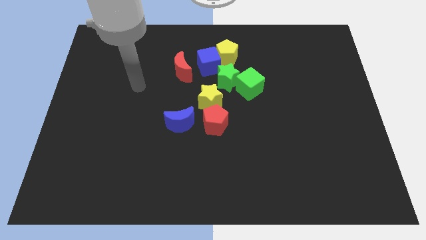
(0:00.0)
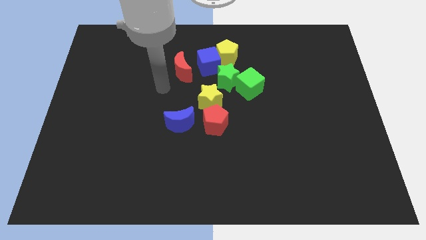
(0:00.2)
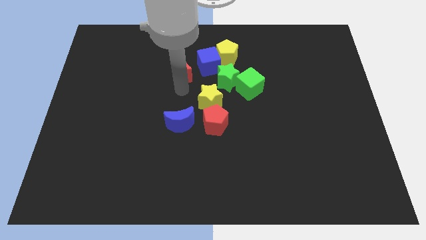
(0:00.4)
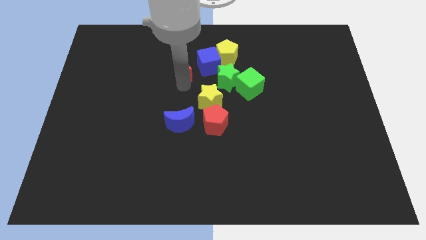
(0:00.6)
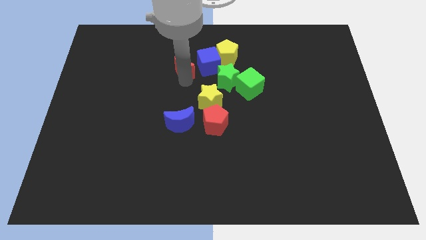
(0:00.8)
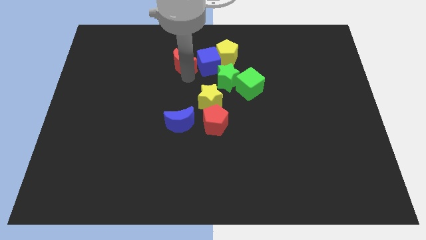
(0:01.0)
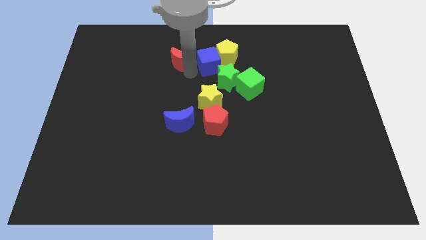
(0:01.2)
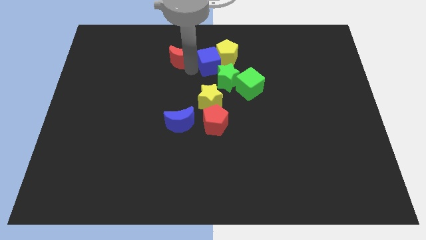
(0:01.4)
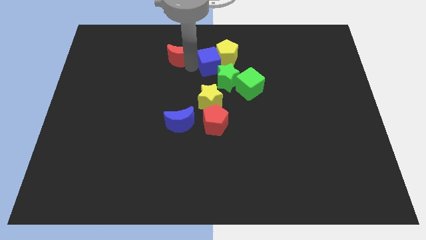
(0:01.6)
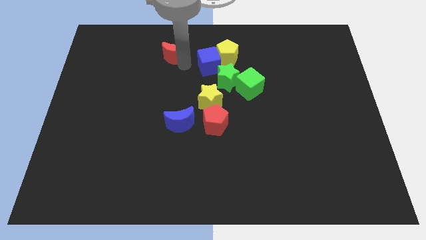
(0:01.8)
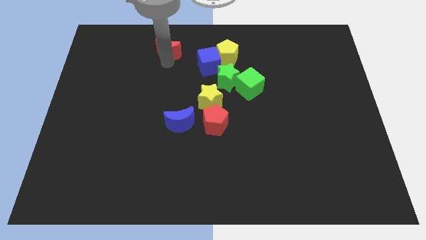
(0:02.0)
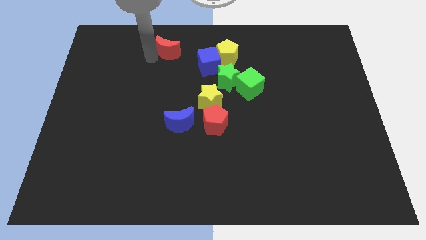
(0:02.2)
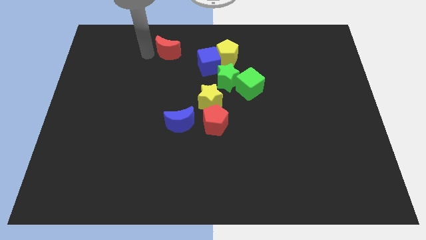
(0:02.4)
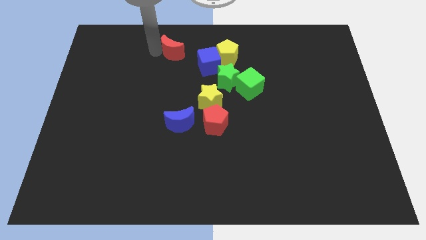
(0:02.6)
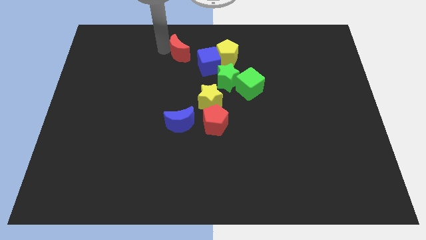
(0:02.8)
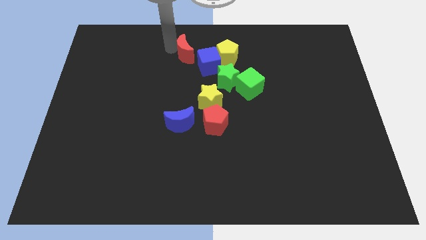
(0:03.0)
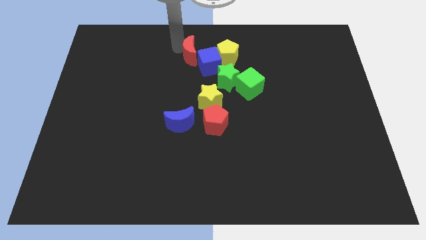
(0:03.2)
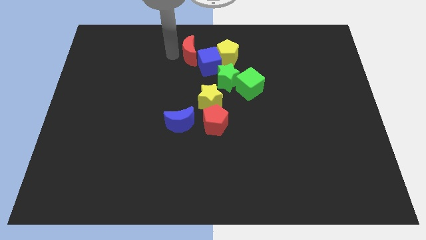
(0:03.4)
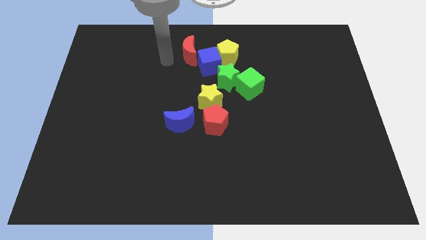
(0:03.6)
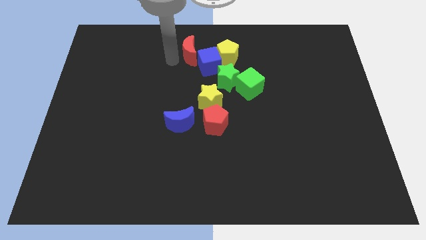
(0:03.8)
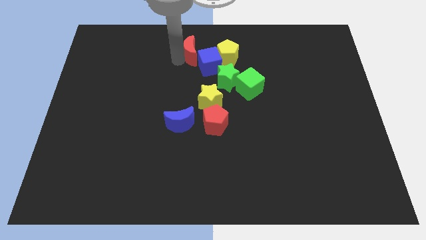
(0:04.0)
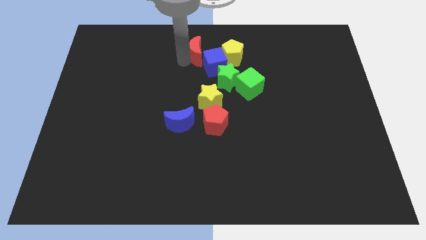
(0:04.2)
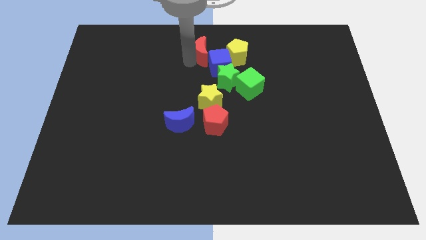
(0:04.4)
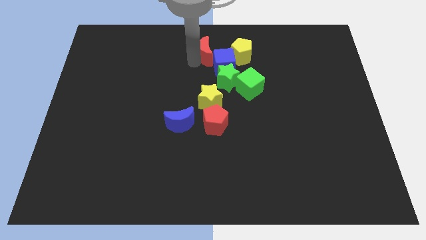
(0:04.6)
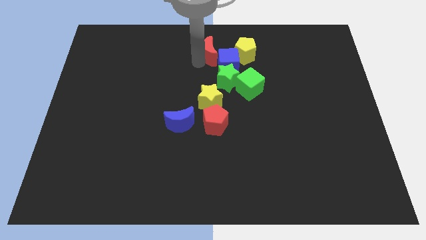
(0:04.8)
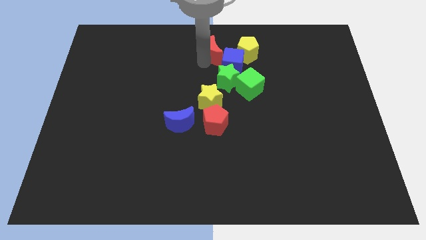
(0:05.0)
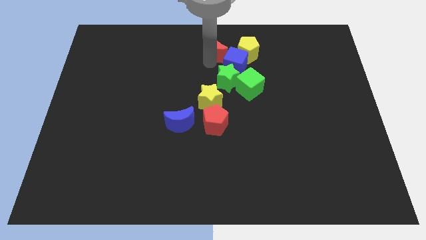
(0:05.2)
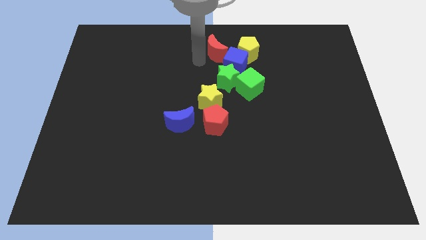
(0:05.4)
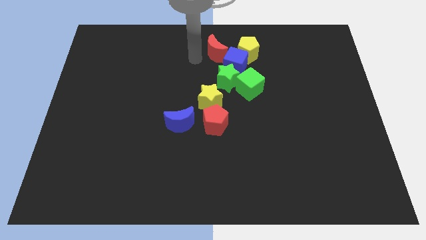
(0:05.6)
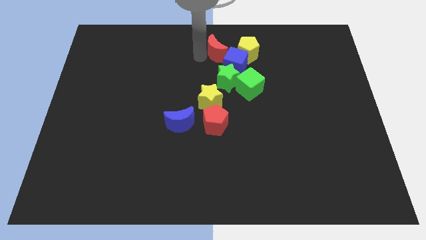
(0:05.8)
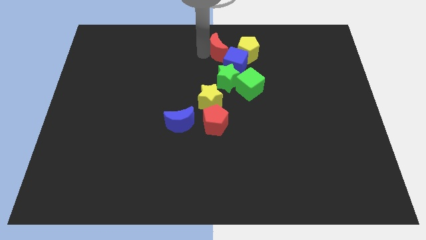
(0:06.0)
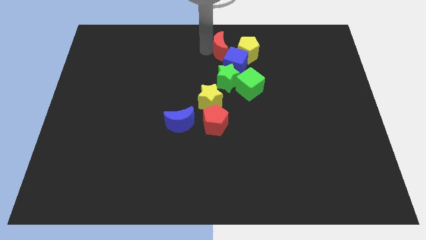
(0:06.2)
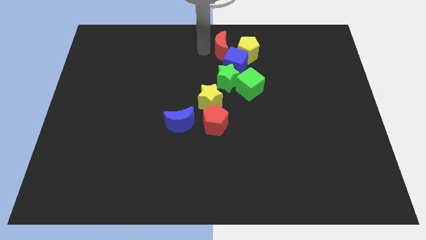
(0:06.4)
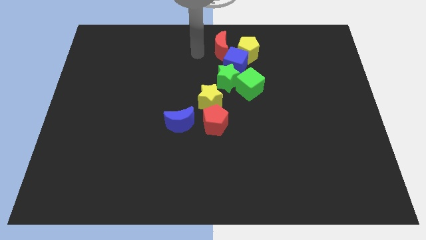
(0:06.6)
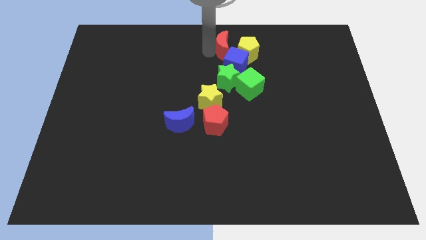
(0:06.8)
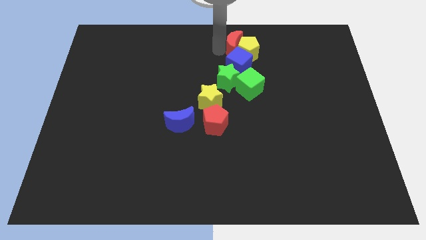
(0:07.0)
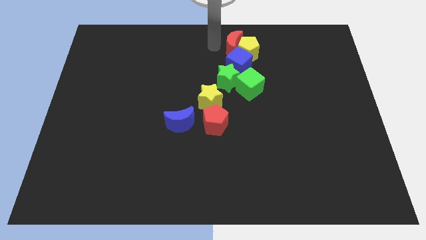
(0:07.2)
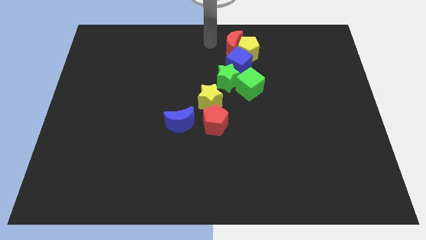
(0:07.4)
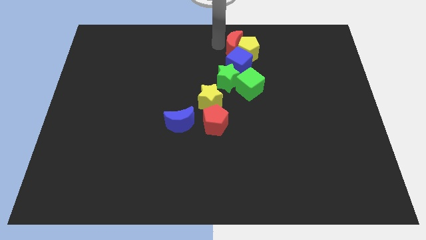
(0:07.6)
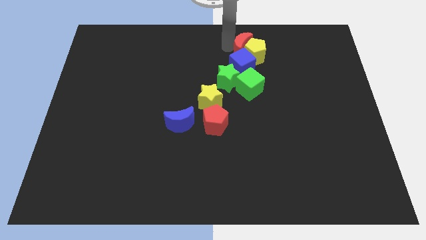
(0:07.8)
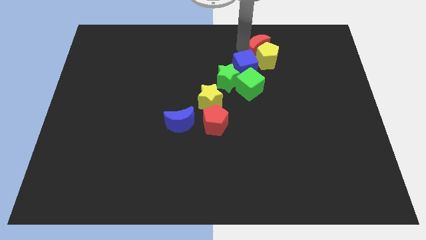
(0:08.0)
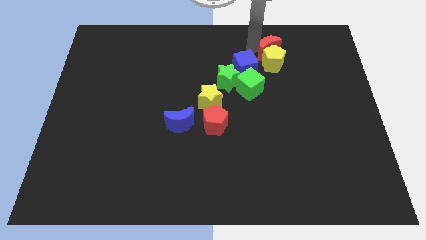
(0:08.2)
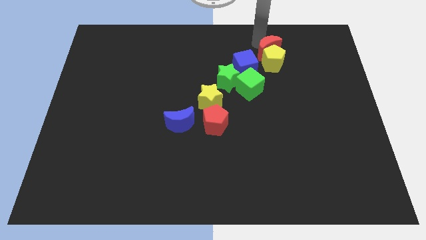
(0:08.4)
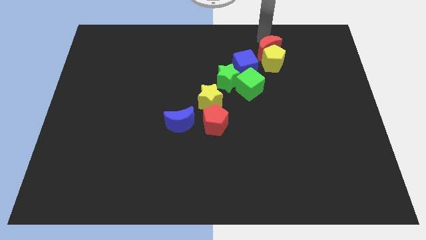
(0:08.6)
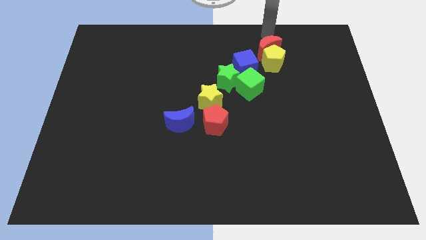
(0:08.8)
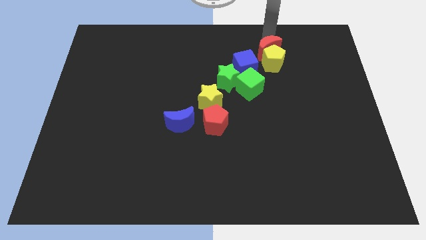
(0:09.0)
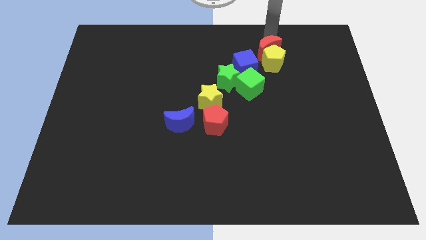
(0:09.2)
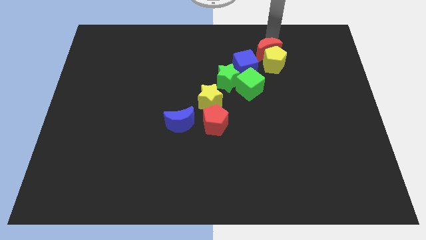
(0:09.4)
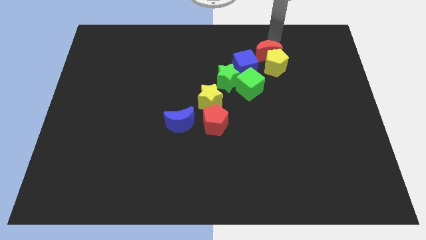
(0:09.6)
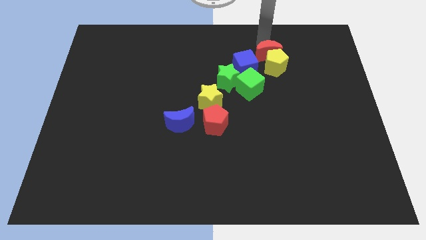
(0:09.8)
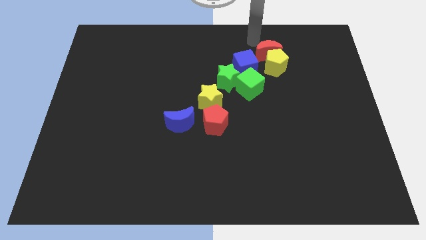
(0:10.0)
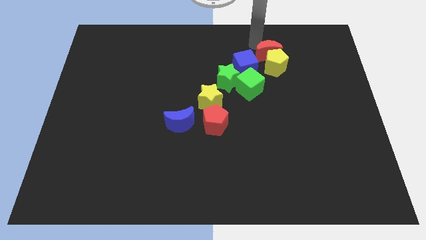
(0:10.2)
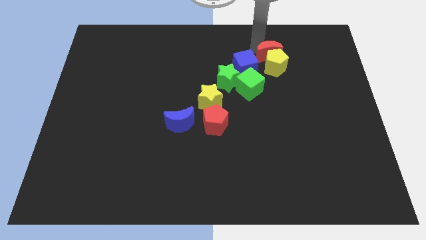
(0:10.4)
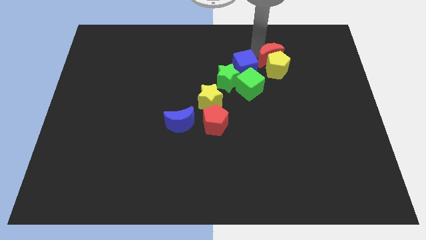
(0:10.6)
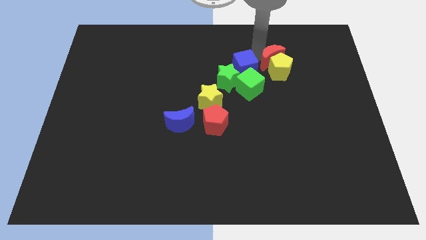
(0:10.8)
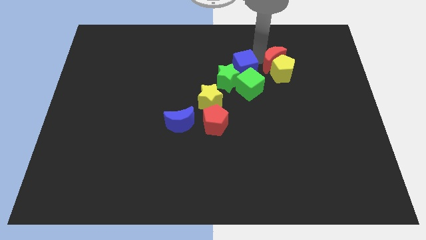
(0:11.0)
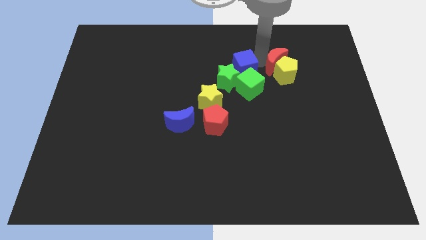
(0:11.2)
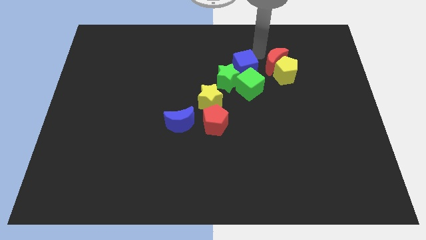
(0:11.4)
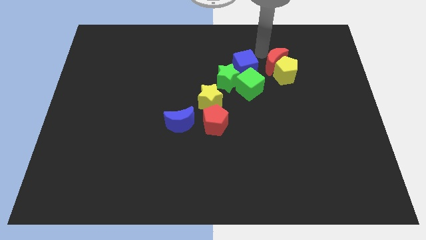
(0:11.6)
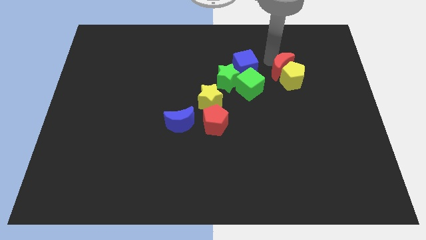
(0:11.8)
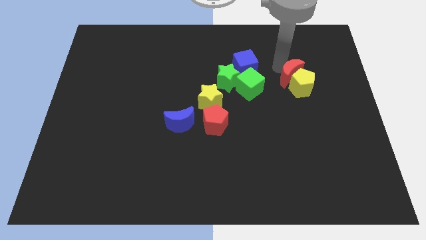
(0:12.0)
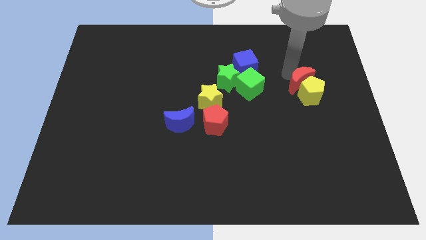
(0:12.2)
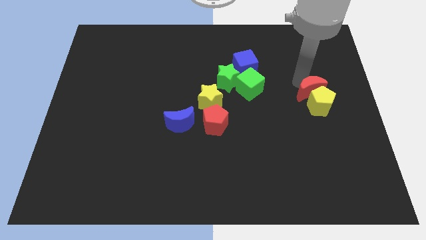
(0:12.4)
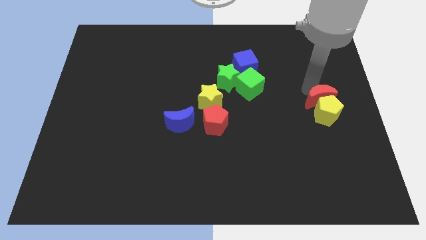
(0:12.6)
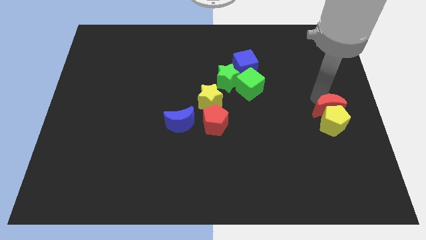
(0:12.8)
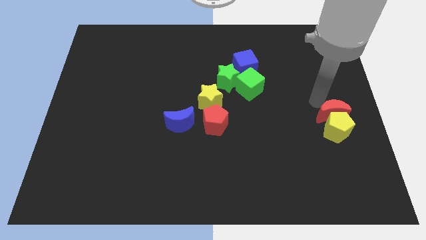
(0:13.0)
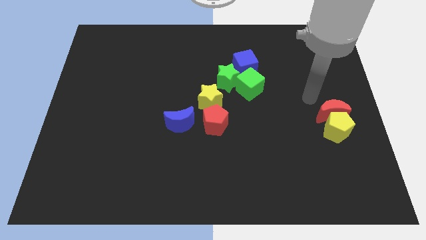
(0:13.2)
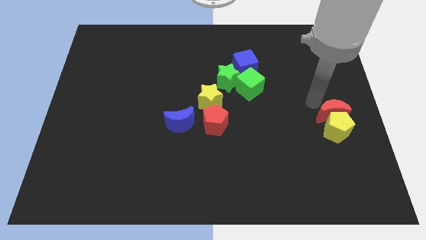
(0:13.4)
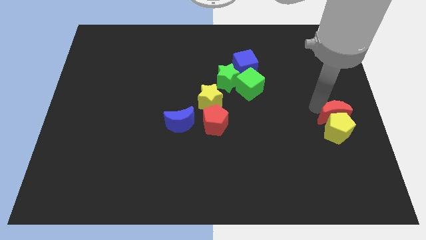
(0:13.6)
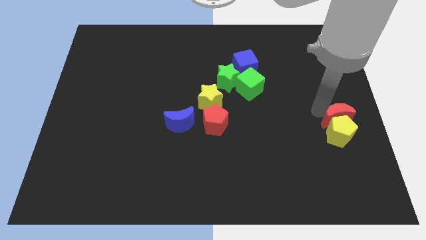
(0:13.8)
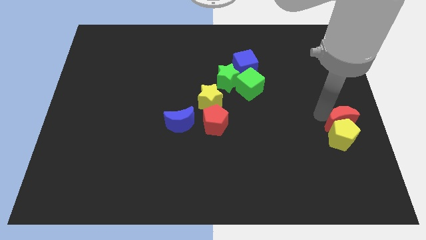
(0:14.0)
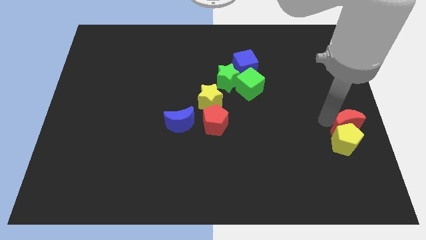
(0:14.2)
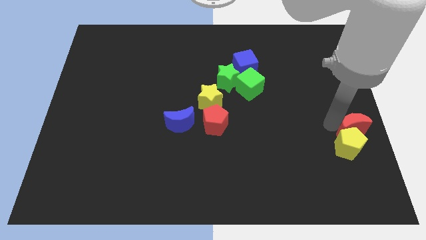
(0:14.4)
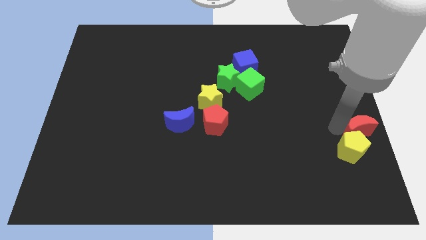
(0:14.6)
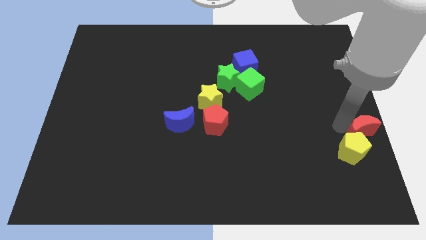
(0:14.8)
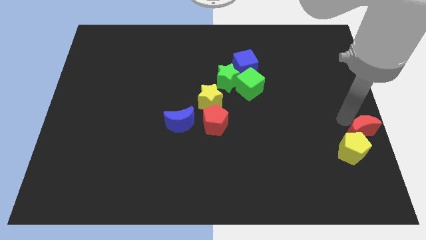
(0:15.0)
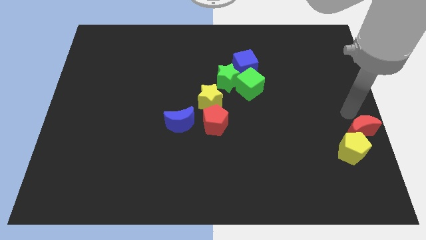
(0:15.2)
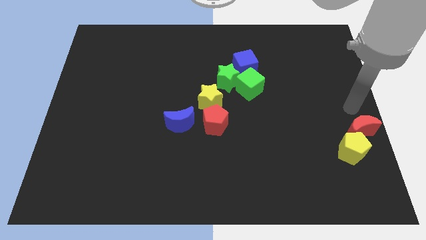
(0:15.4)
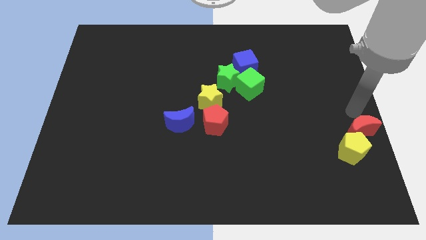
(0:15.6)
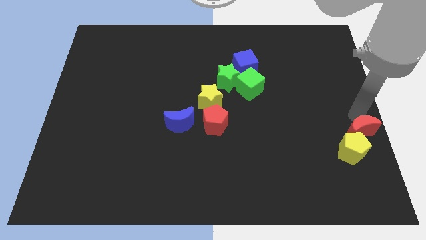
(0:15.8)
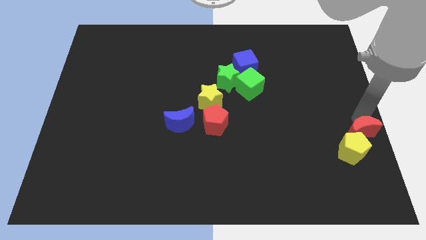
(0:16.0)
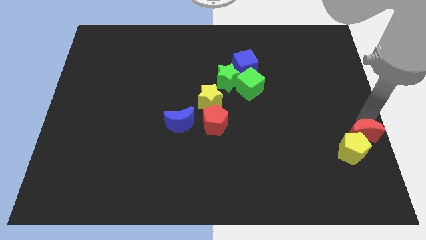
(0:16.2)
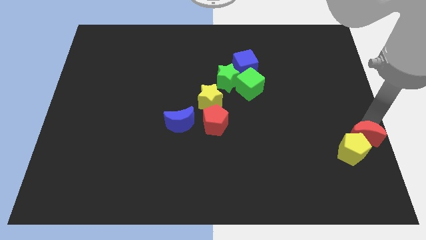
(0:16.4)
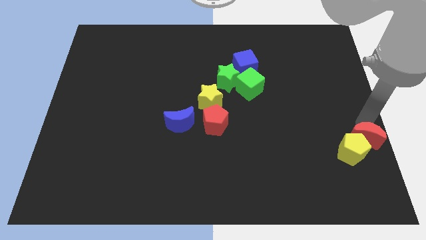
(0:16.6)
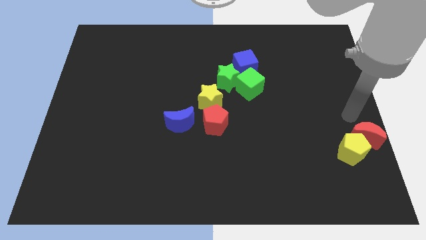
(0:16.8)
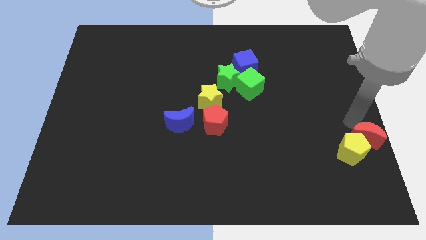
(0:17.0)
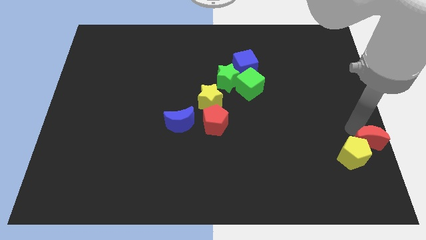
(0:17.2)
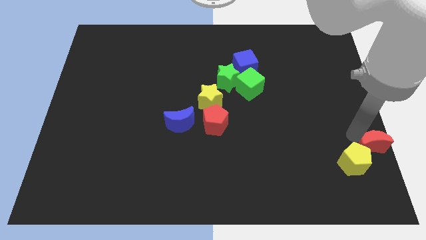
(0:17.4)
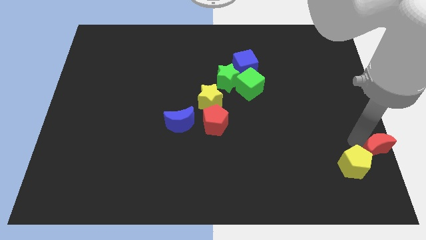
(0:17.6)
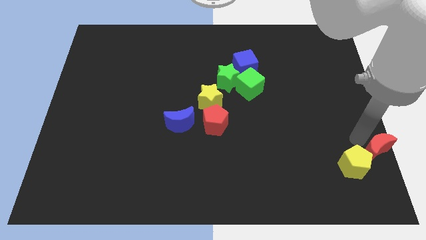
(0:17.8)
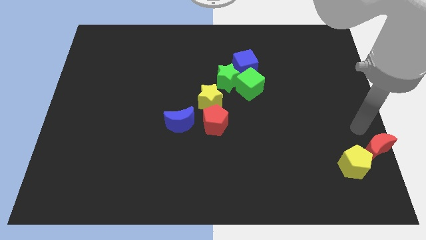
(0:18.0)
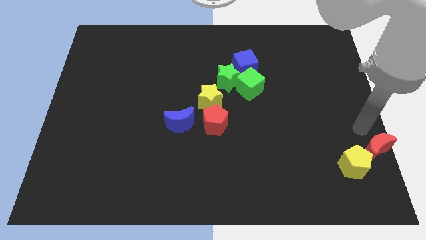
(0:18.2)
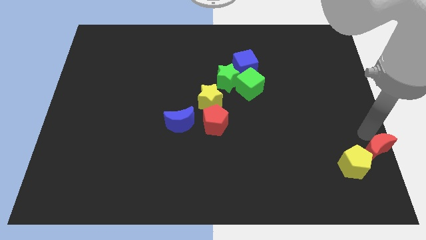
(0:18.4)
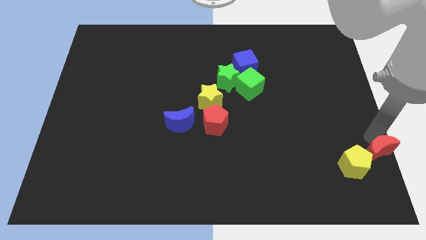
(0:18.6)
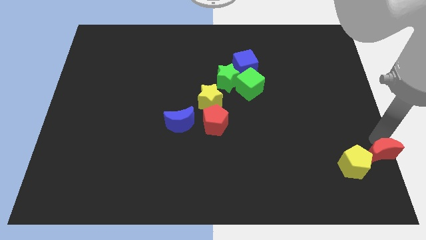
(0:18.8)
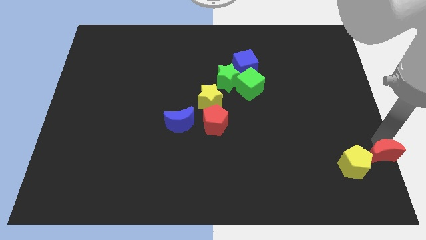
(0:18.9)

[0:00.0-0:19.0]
push the red moon to the bottom right
